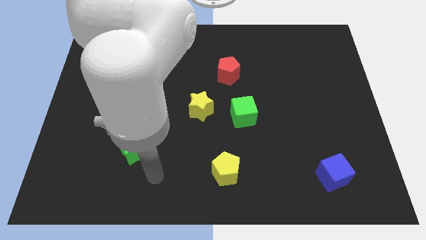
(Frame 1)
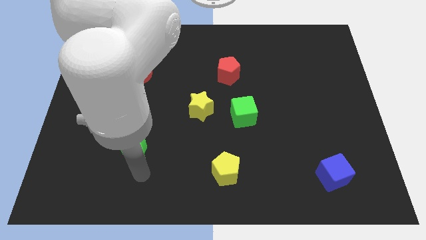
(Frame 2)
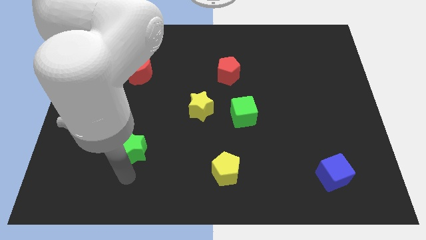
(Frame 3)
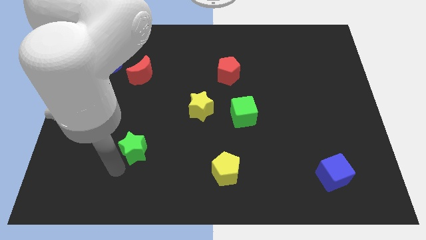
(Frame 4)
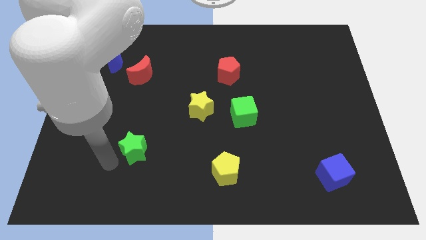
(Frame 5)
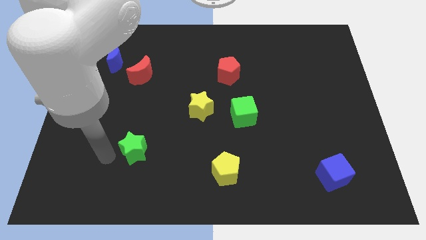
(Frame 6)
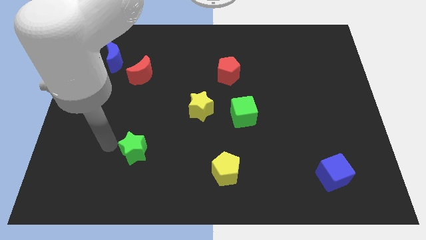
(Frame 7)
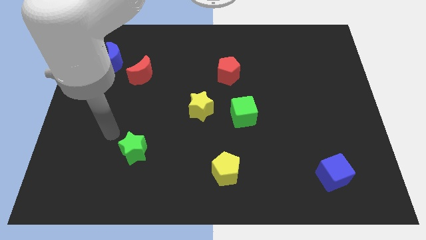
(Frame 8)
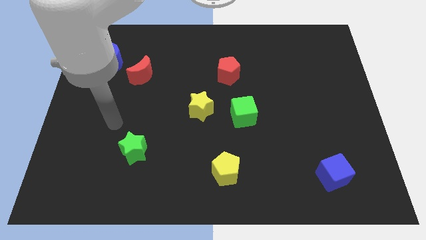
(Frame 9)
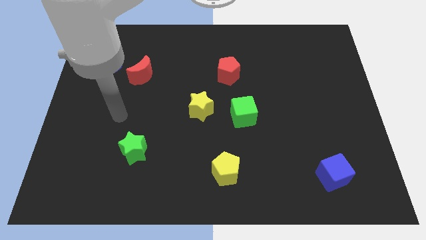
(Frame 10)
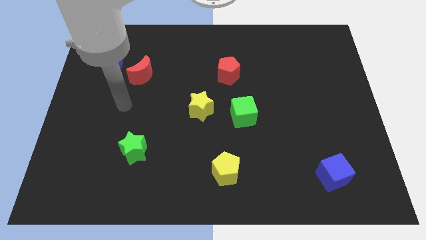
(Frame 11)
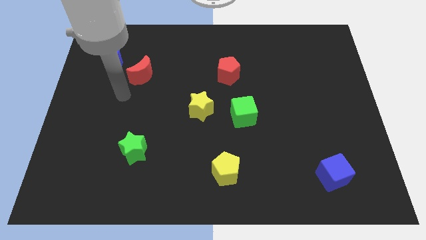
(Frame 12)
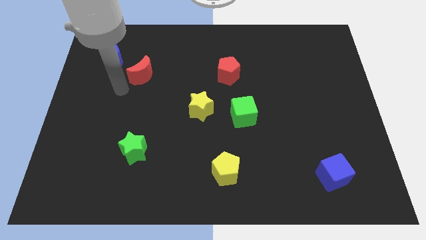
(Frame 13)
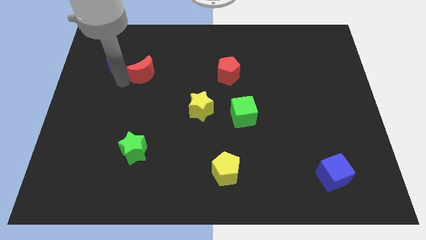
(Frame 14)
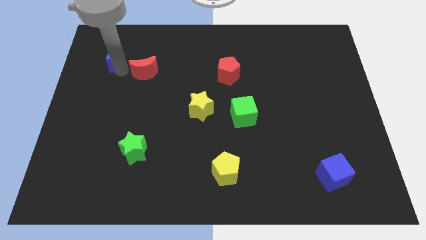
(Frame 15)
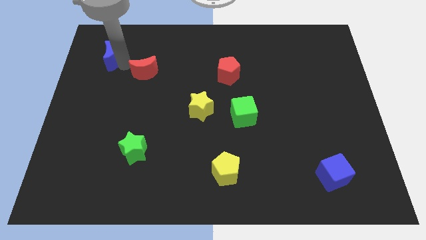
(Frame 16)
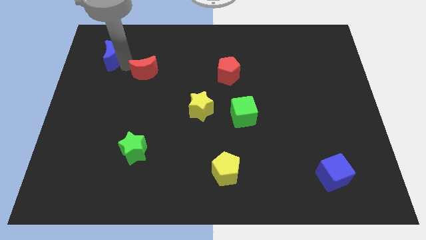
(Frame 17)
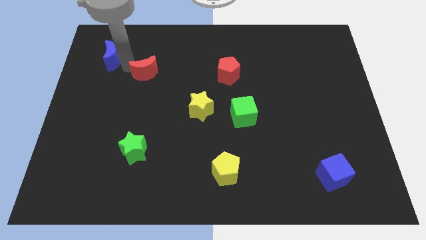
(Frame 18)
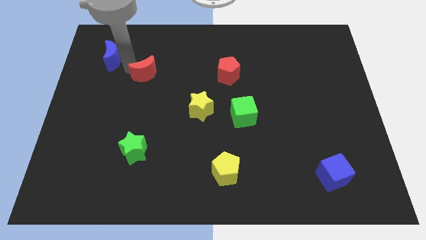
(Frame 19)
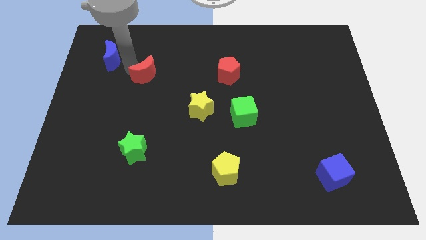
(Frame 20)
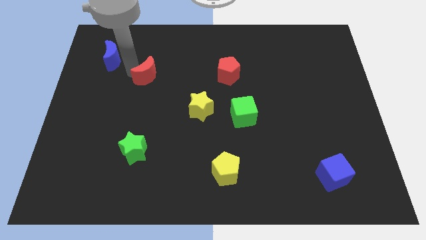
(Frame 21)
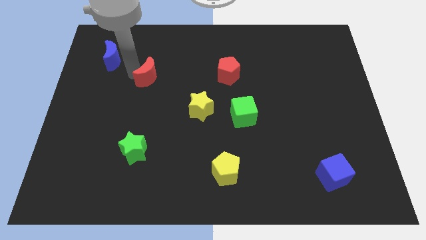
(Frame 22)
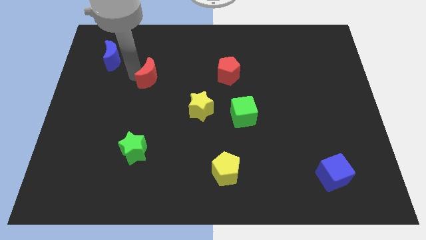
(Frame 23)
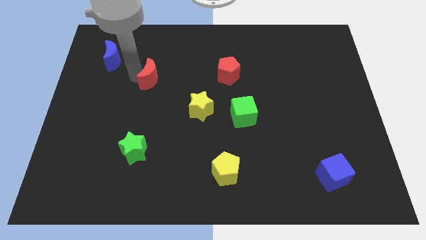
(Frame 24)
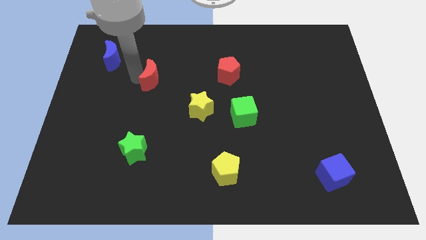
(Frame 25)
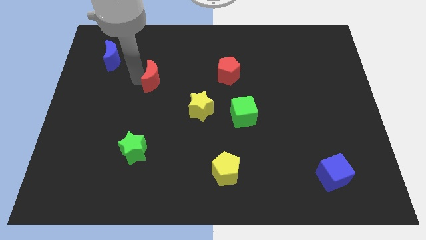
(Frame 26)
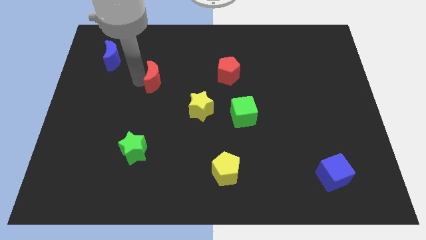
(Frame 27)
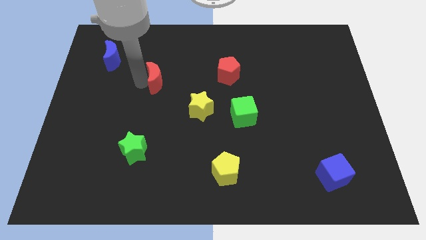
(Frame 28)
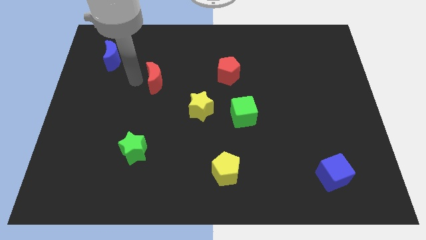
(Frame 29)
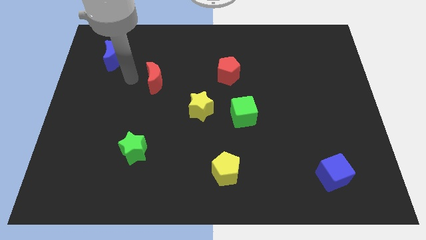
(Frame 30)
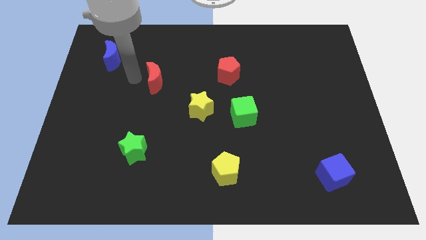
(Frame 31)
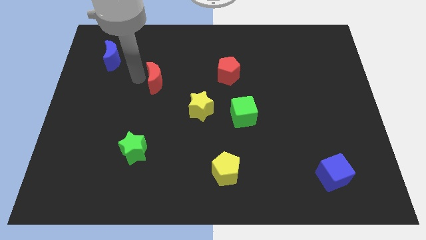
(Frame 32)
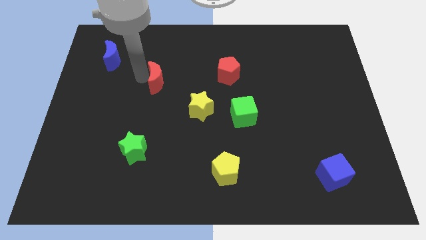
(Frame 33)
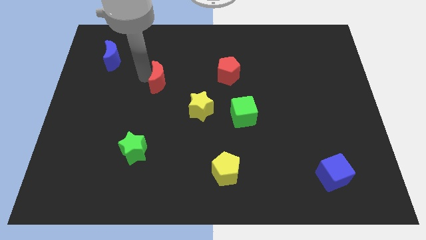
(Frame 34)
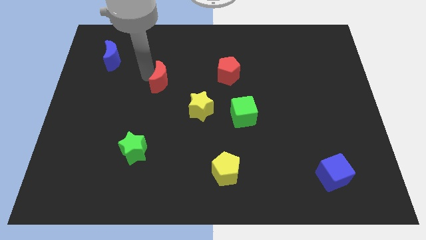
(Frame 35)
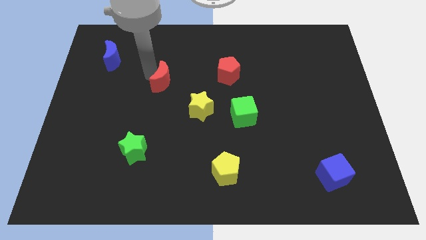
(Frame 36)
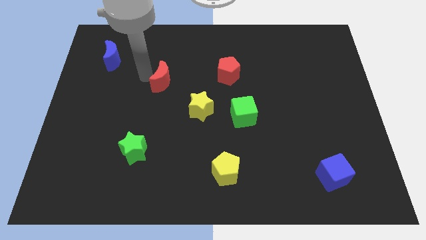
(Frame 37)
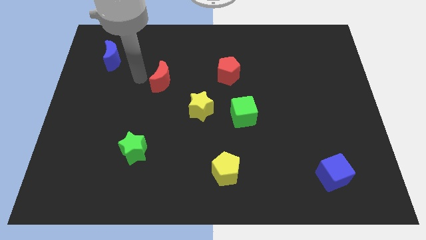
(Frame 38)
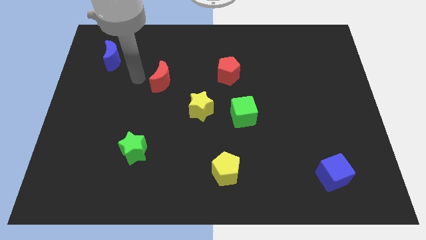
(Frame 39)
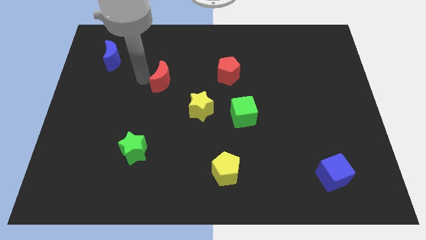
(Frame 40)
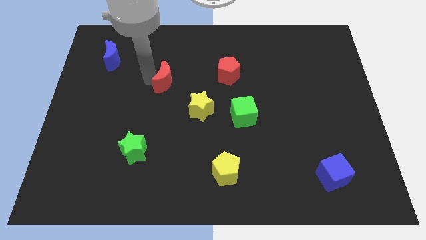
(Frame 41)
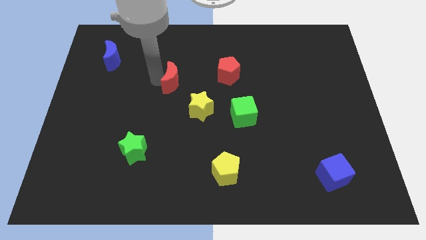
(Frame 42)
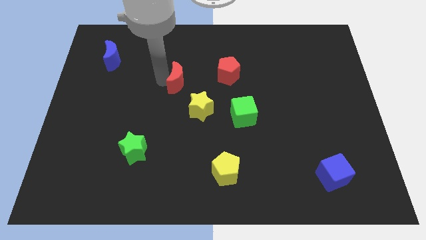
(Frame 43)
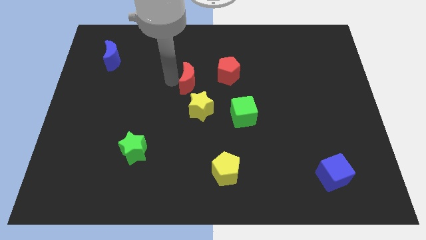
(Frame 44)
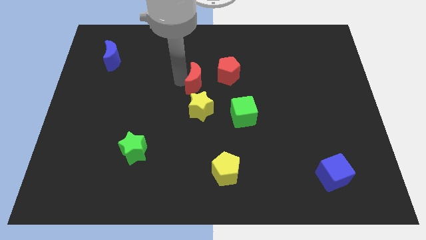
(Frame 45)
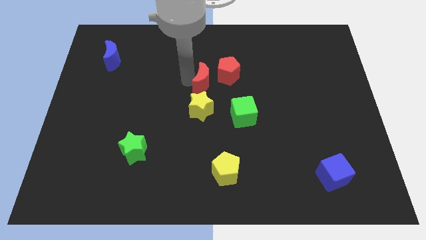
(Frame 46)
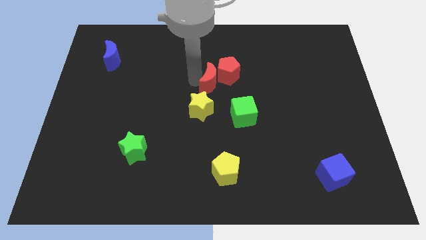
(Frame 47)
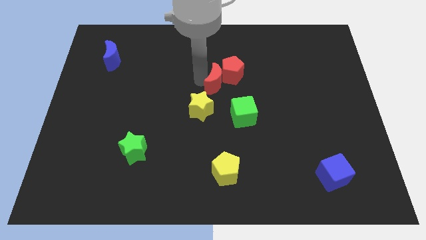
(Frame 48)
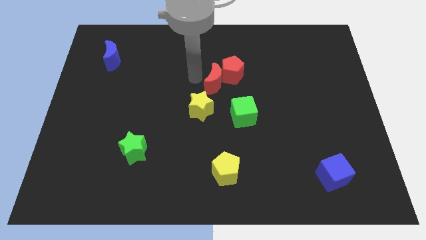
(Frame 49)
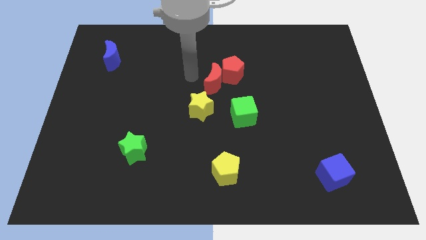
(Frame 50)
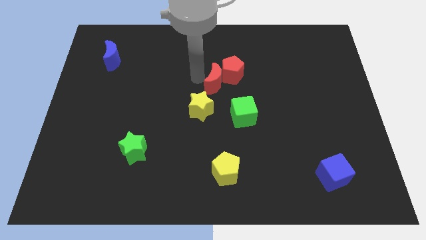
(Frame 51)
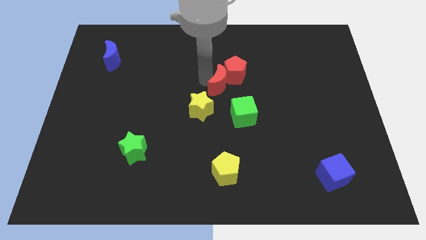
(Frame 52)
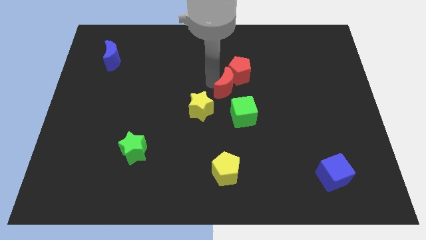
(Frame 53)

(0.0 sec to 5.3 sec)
put the red moon to the top side of the green cube

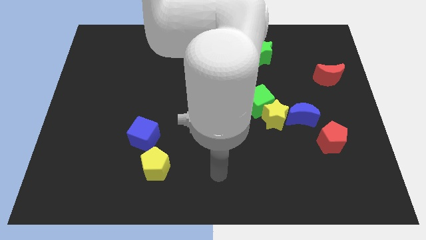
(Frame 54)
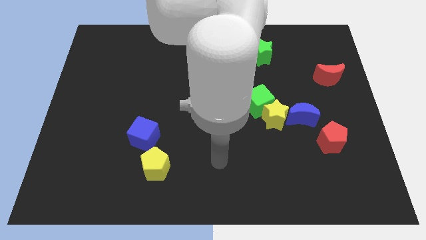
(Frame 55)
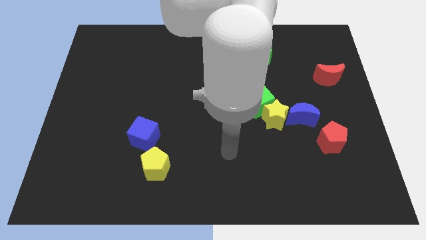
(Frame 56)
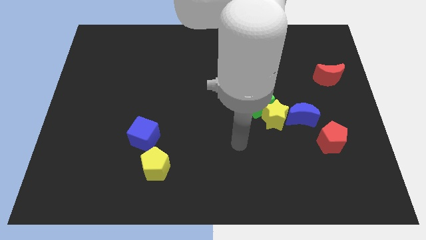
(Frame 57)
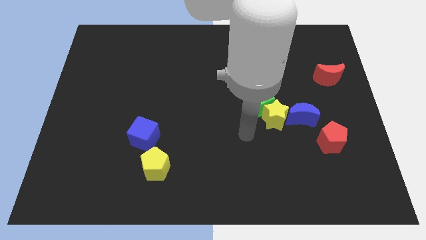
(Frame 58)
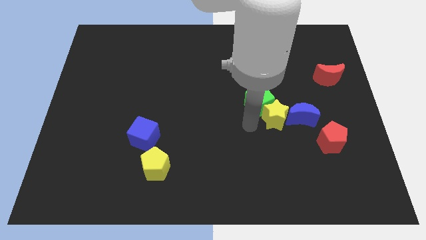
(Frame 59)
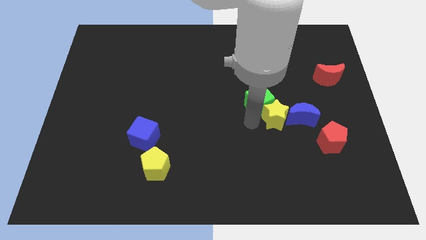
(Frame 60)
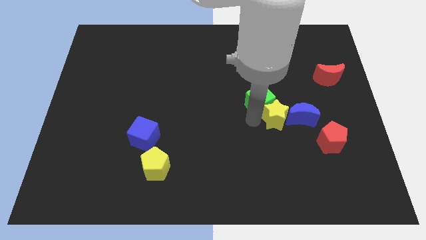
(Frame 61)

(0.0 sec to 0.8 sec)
push the green cube below the green star
